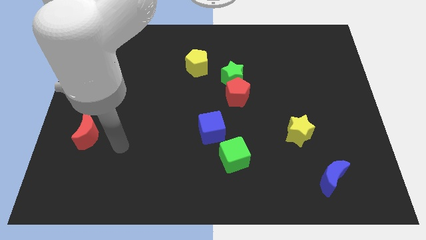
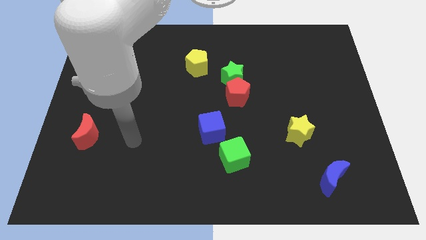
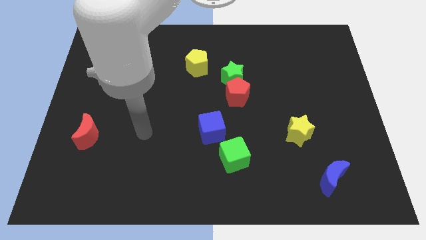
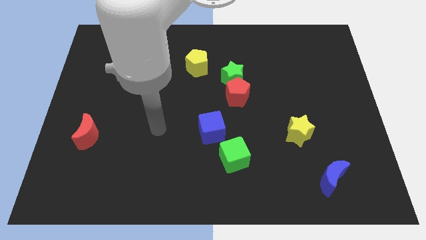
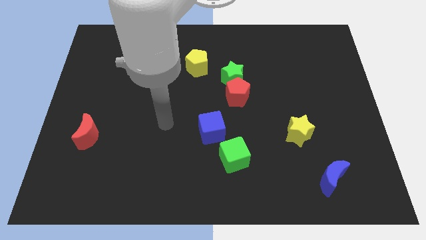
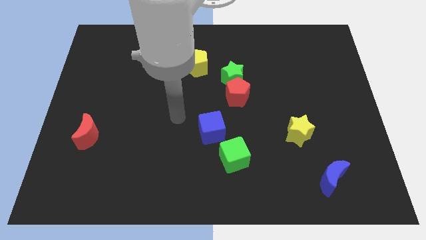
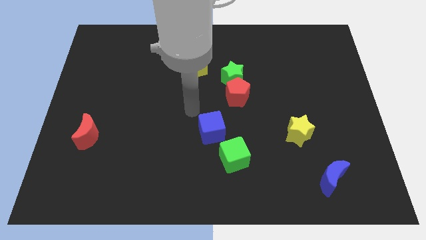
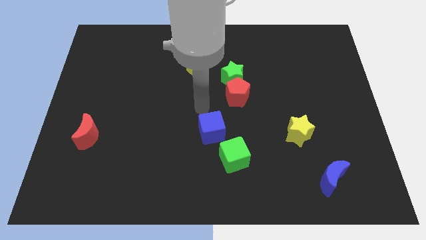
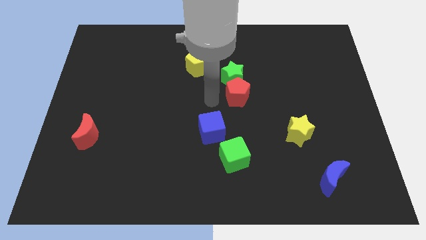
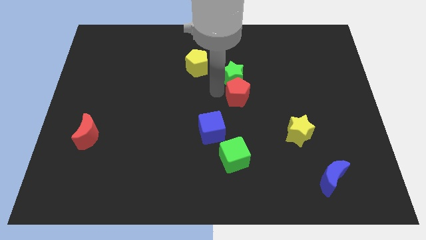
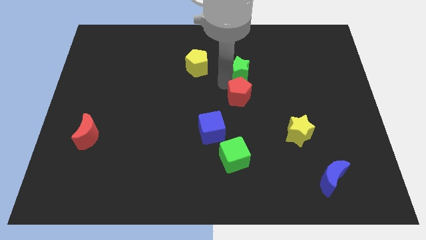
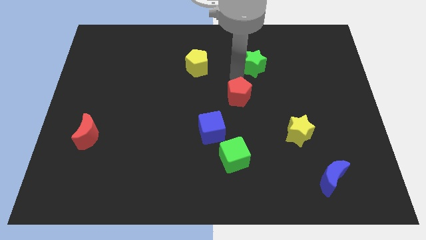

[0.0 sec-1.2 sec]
separate the red pentagon from the green star

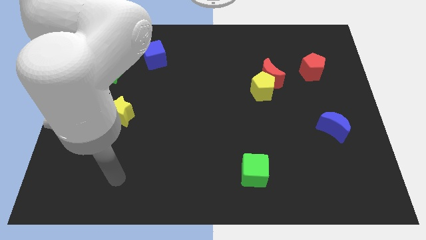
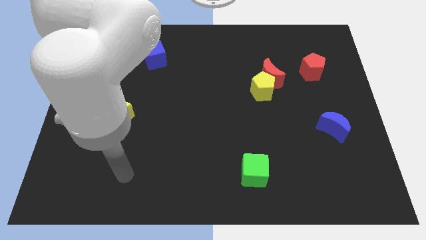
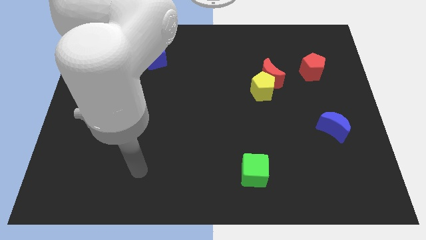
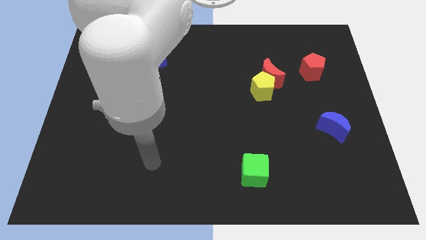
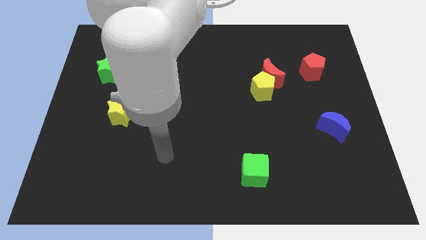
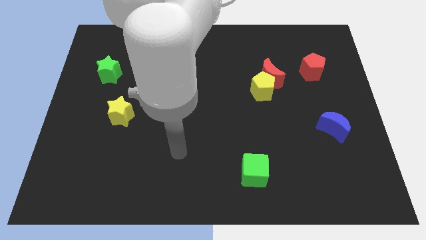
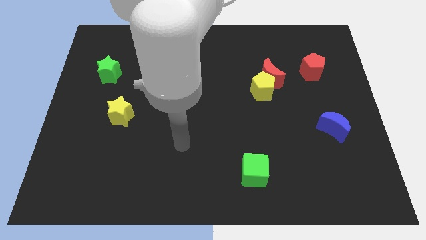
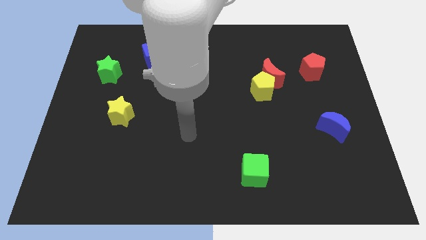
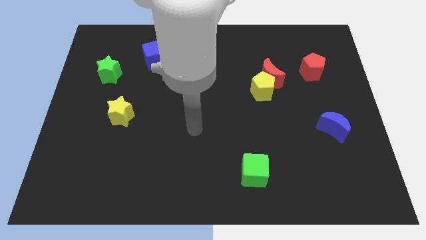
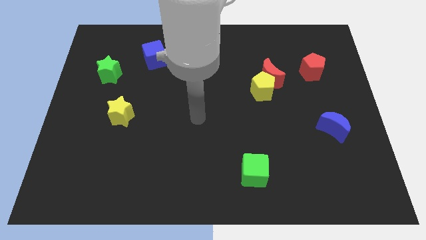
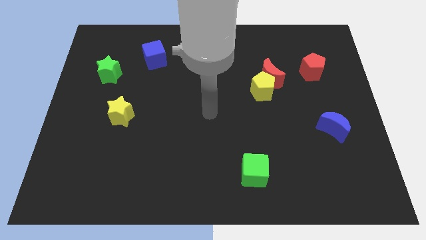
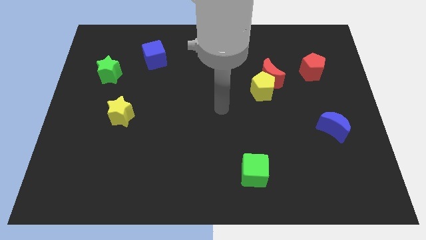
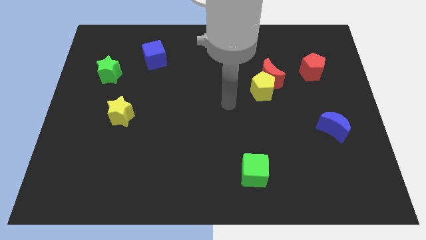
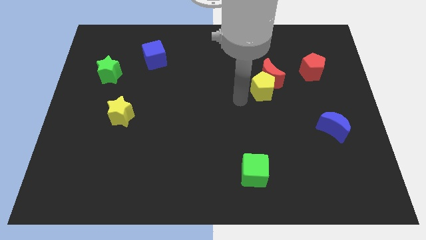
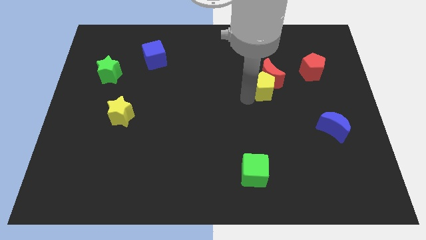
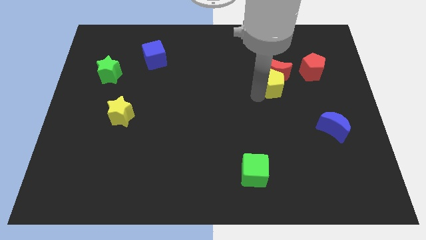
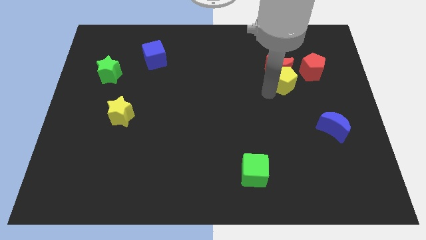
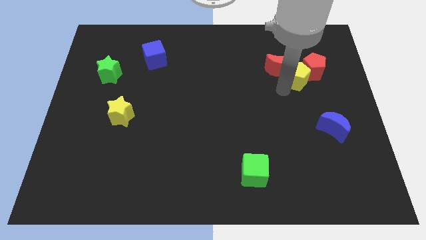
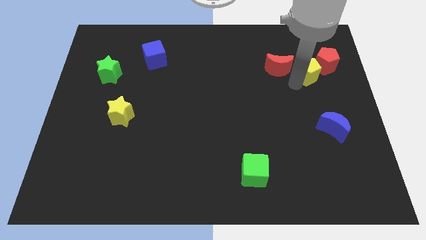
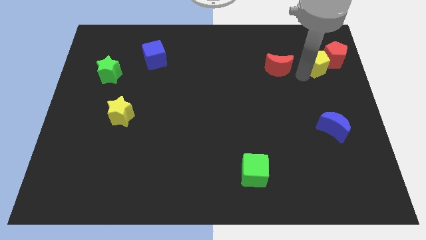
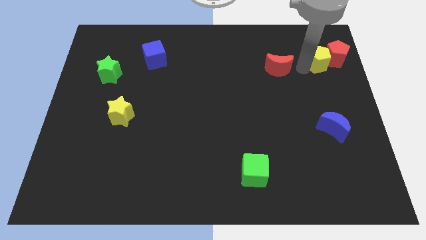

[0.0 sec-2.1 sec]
pull the red moon apart from the yellow pentagon

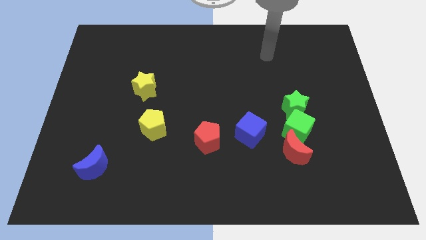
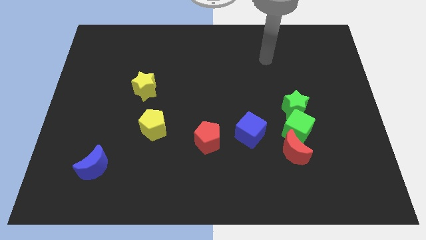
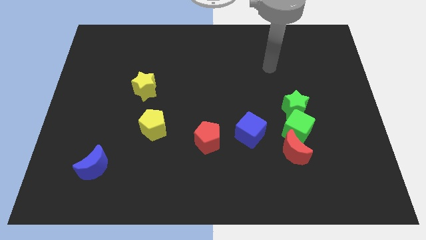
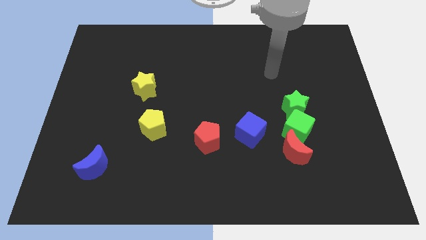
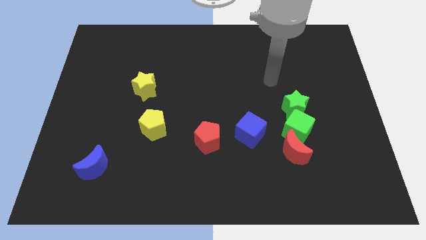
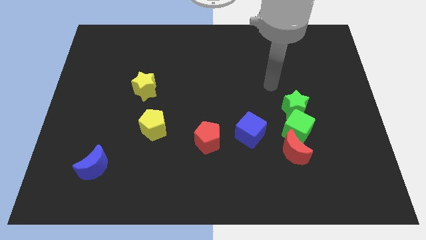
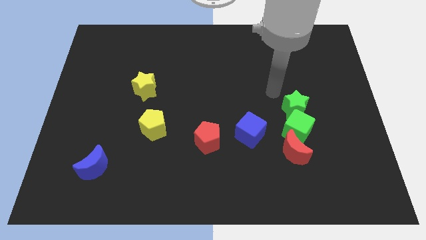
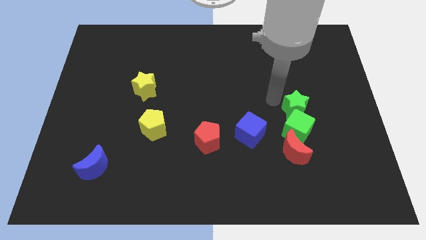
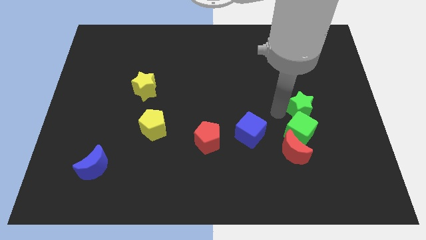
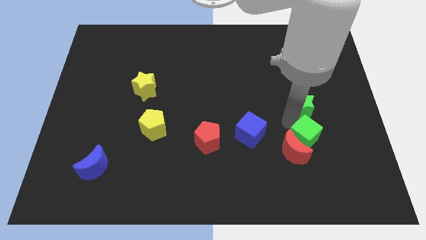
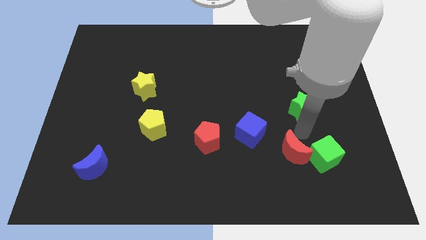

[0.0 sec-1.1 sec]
separate the green star from the green cube

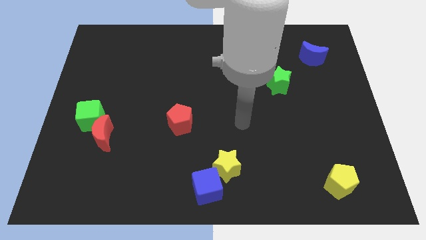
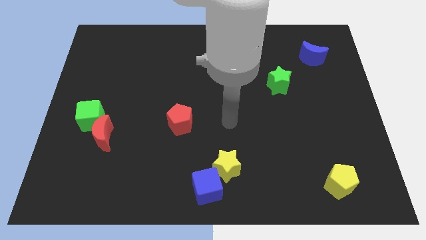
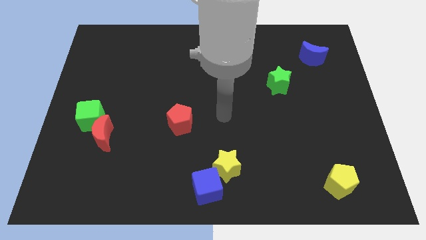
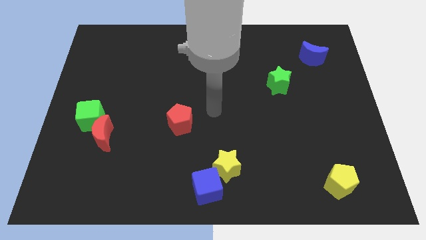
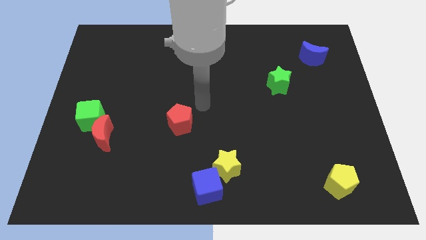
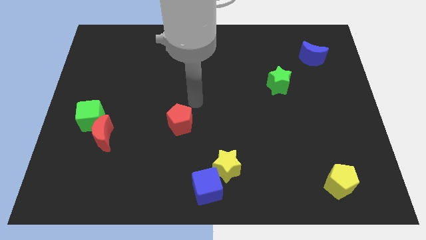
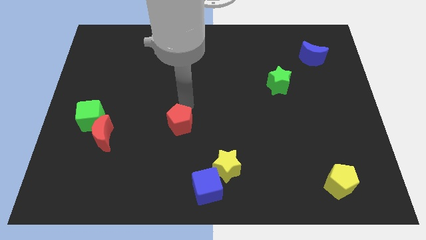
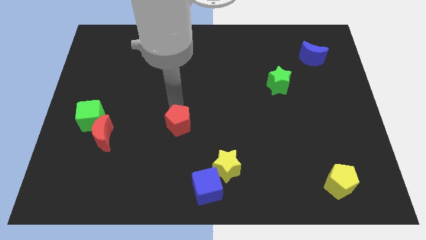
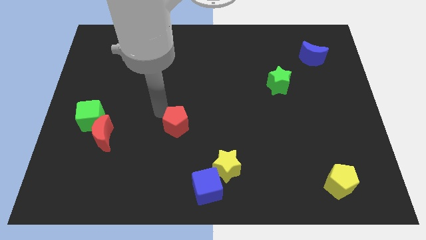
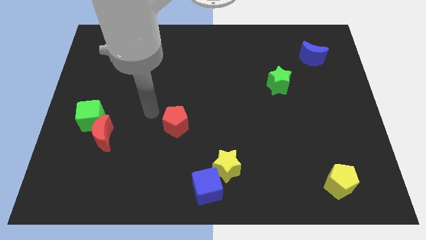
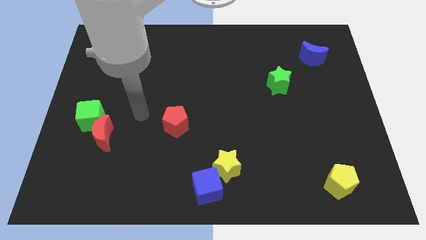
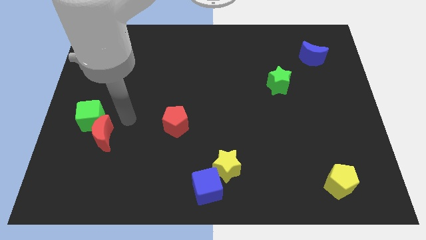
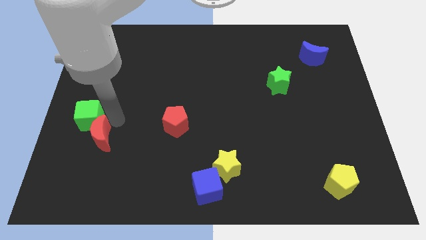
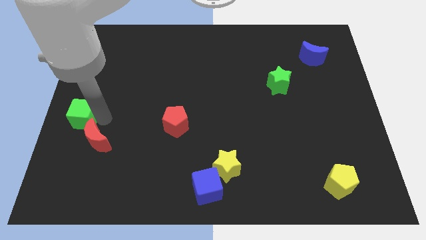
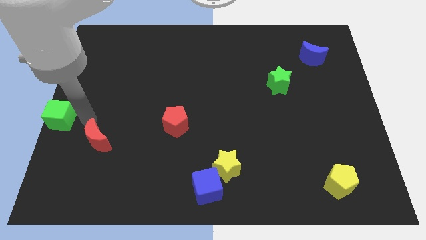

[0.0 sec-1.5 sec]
move the red moon away from the green cube

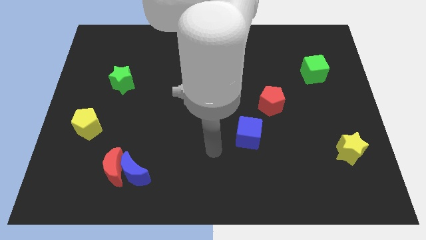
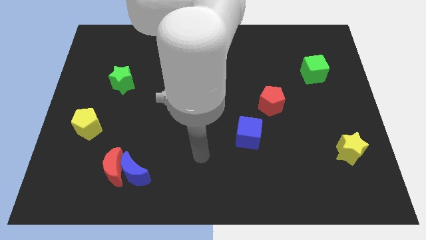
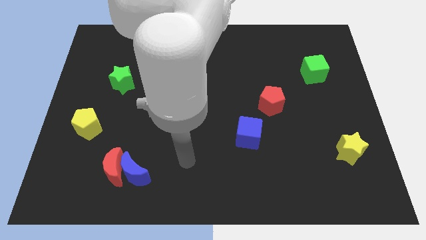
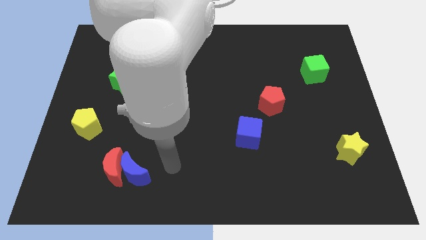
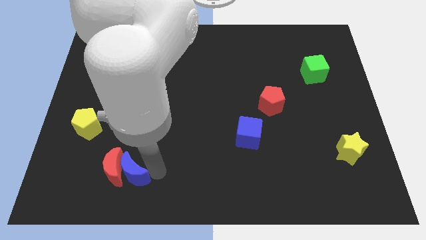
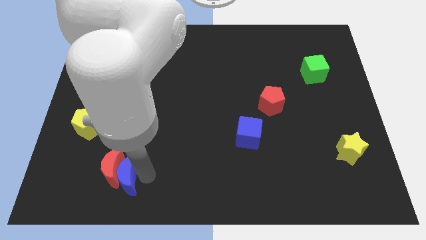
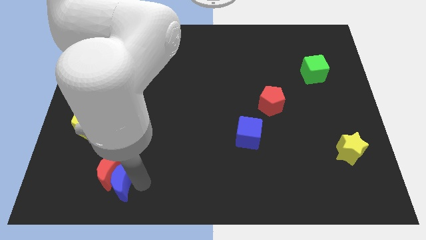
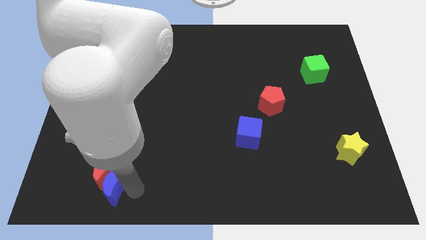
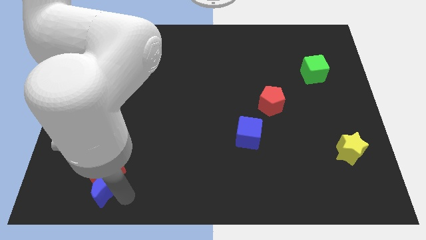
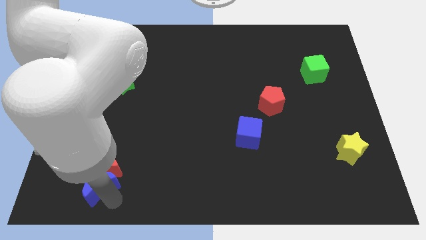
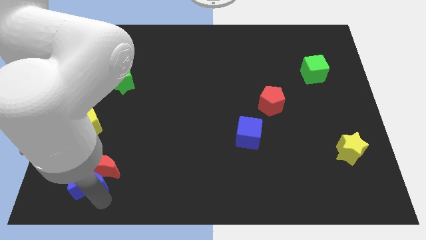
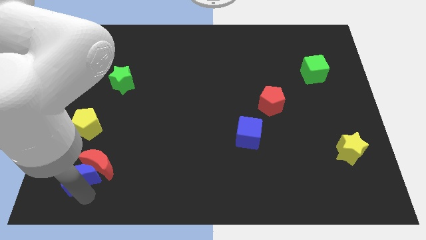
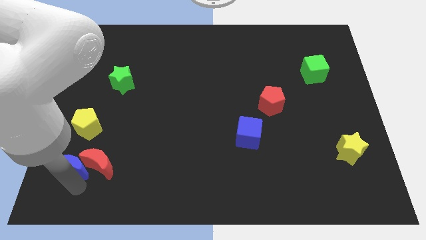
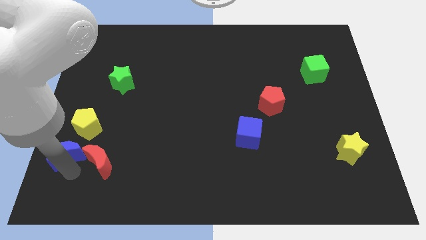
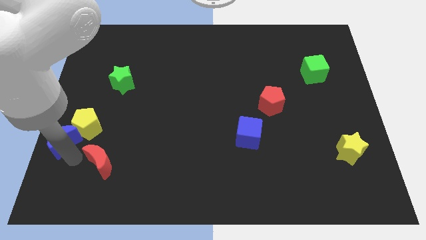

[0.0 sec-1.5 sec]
pull the red moon apart from the blue moon

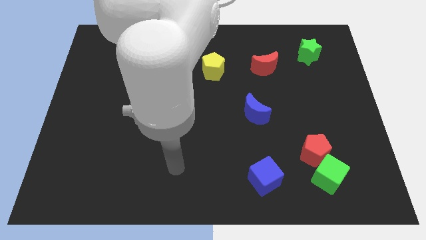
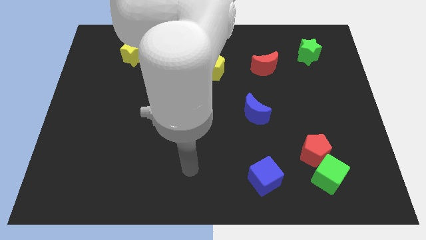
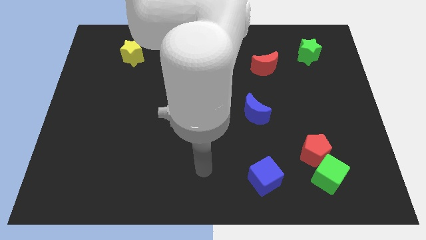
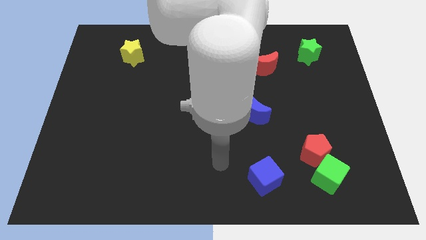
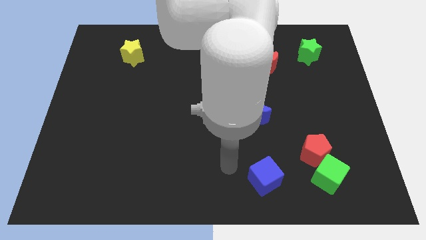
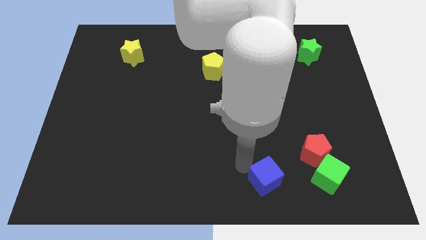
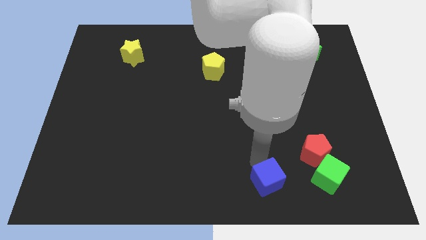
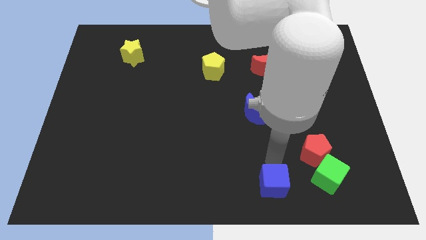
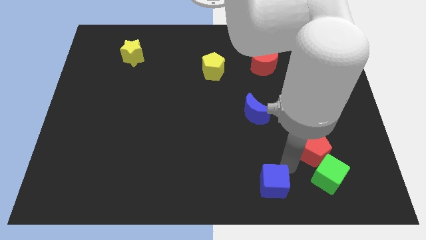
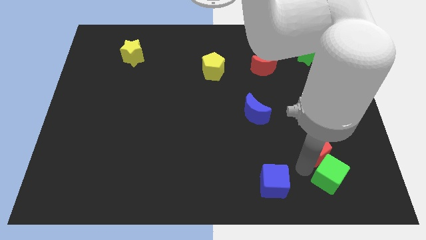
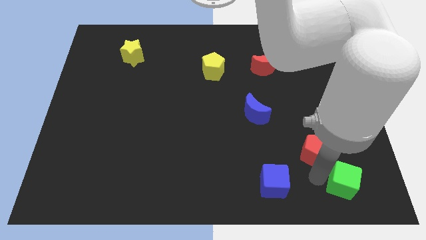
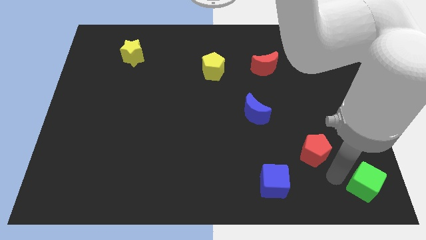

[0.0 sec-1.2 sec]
separate the red pentagon from the green cube

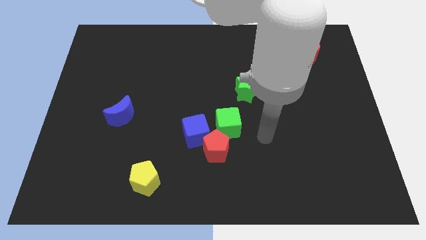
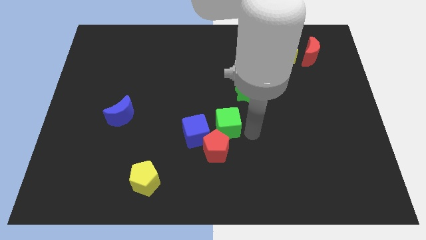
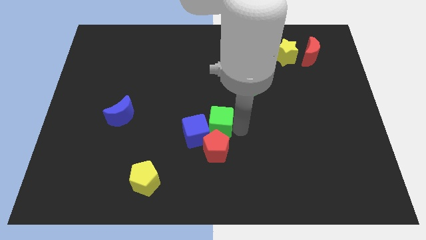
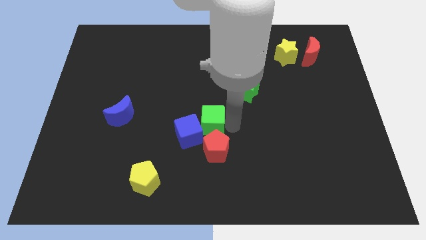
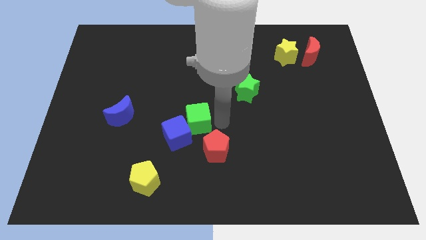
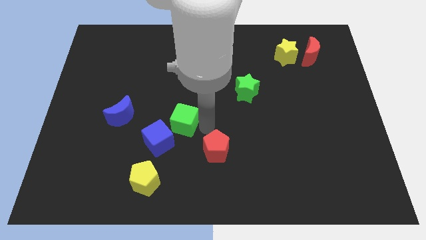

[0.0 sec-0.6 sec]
pull the red pentagon apart from the blue cube and green cube
